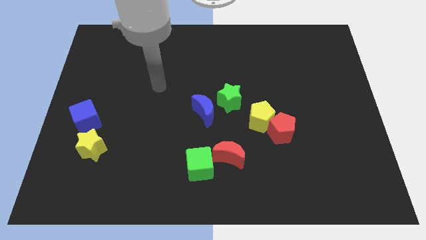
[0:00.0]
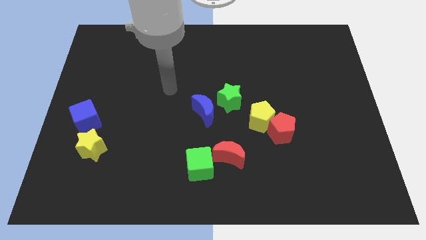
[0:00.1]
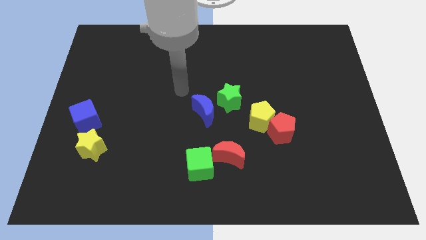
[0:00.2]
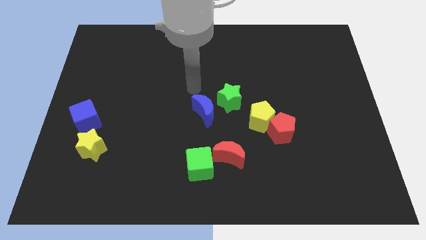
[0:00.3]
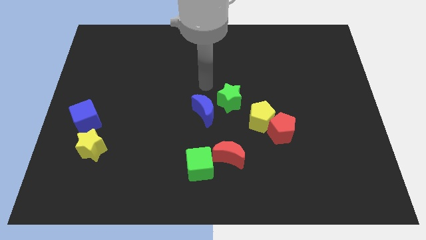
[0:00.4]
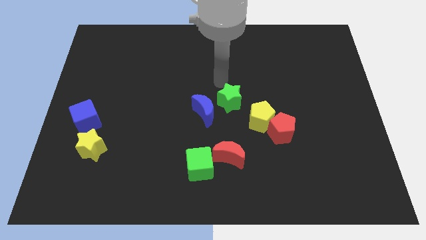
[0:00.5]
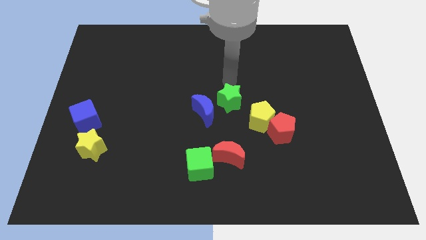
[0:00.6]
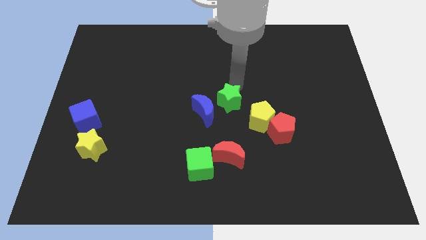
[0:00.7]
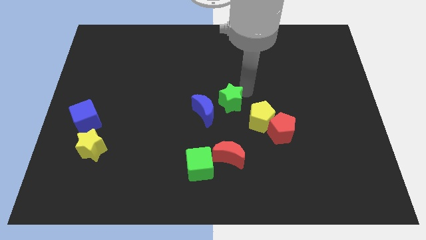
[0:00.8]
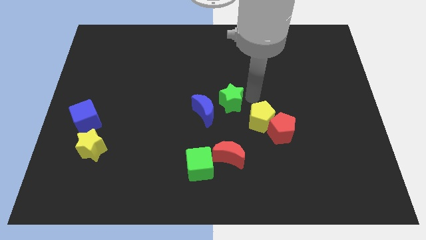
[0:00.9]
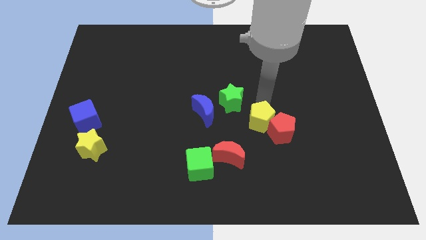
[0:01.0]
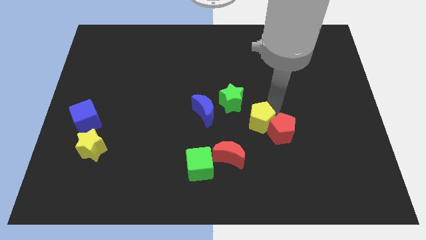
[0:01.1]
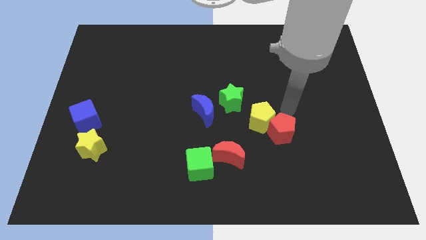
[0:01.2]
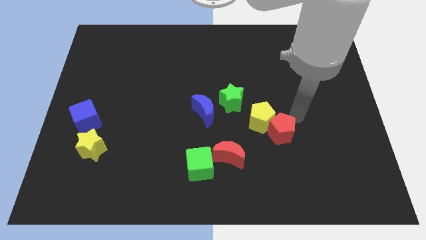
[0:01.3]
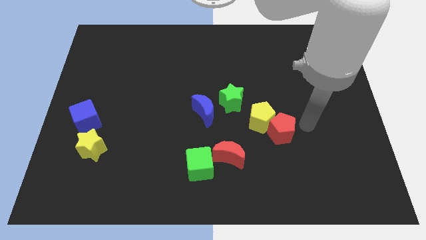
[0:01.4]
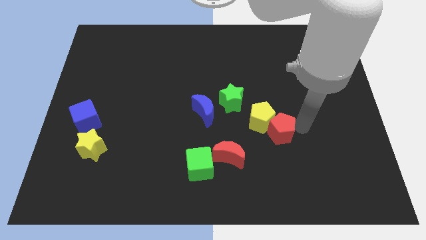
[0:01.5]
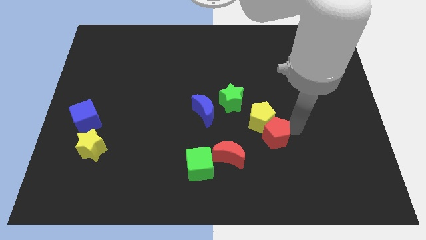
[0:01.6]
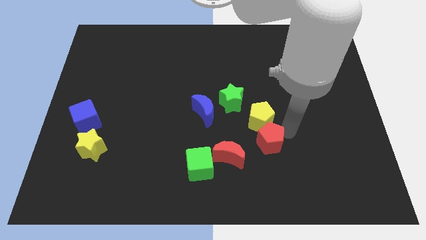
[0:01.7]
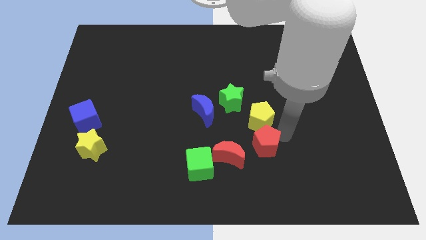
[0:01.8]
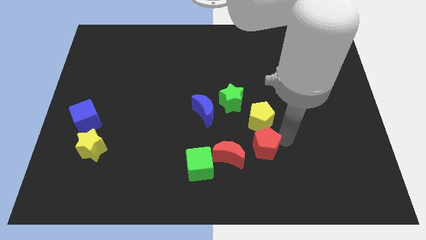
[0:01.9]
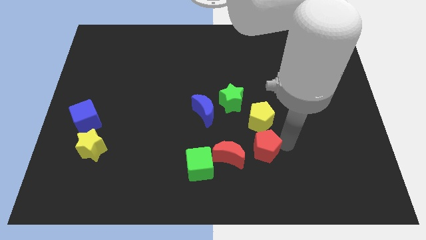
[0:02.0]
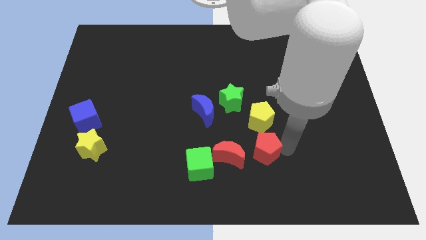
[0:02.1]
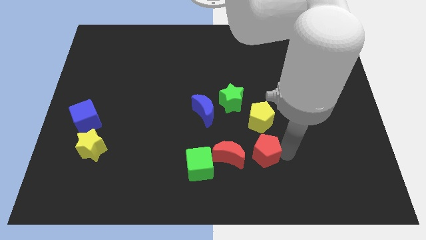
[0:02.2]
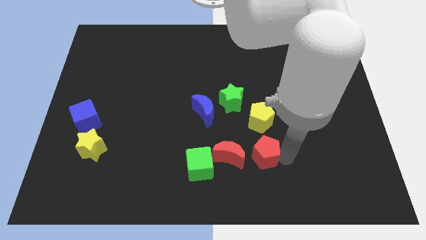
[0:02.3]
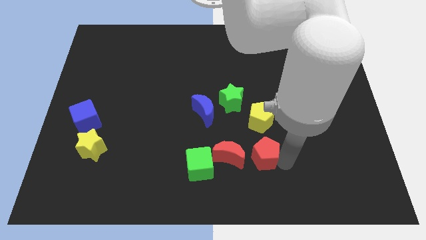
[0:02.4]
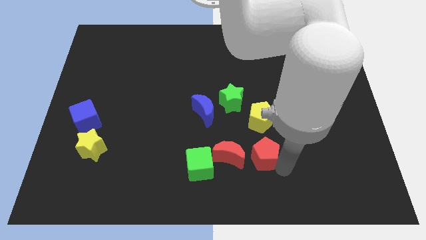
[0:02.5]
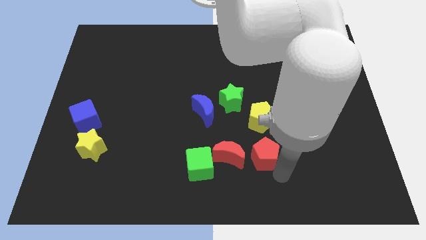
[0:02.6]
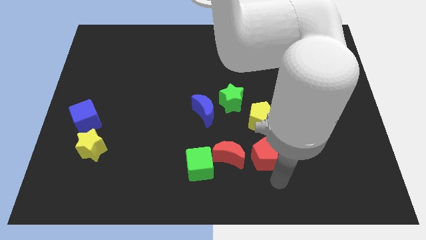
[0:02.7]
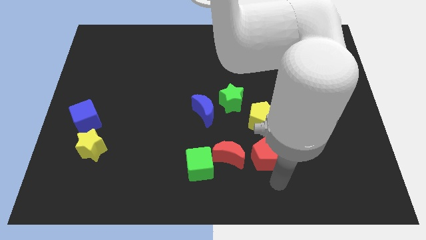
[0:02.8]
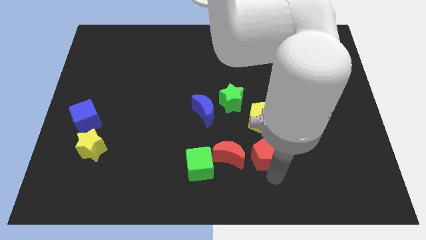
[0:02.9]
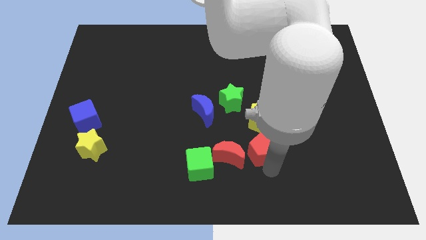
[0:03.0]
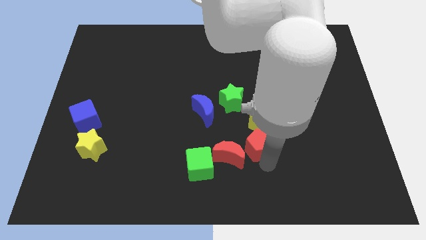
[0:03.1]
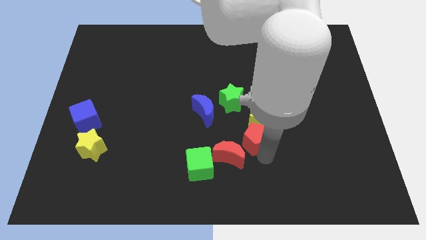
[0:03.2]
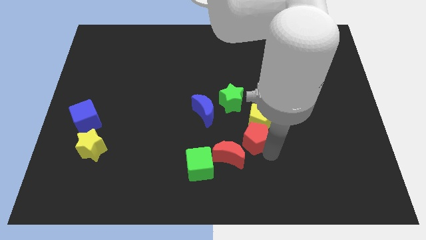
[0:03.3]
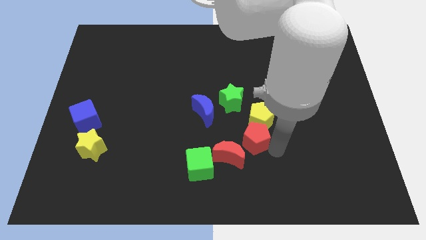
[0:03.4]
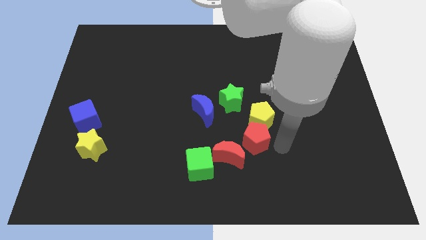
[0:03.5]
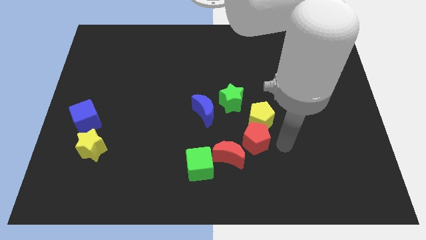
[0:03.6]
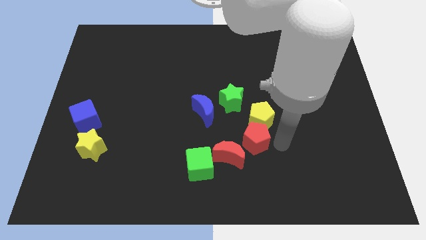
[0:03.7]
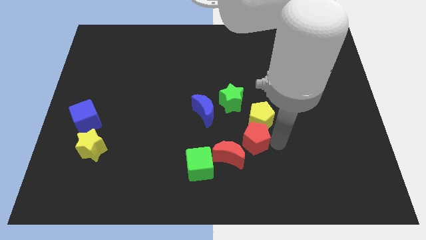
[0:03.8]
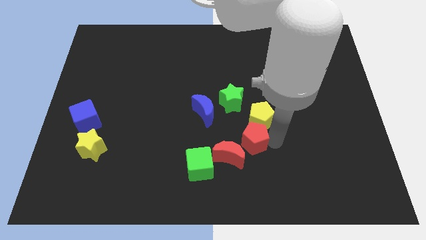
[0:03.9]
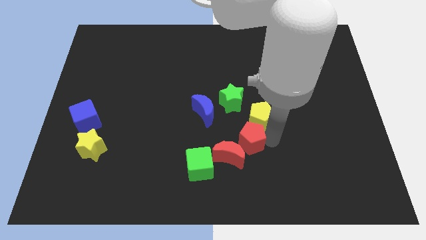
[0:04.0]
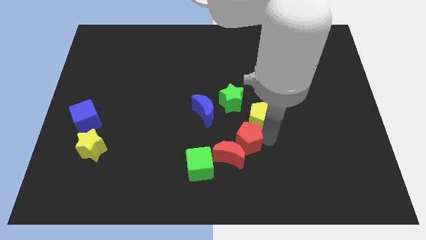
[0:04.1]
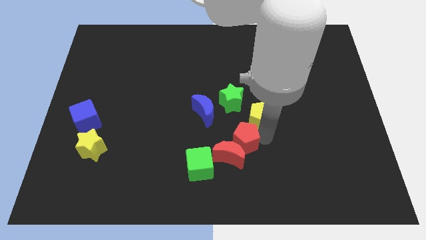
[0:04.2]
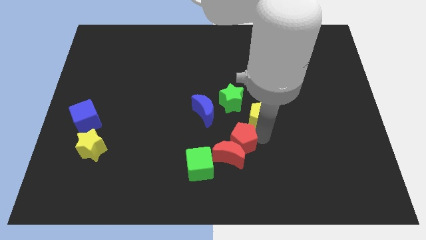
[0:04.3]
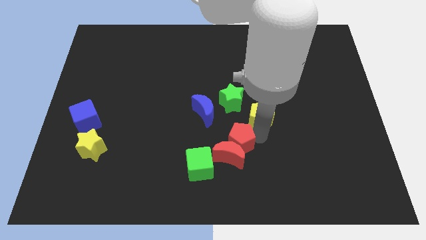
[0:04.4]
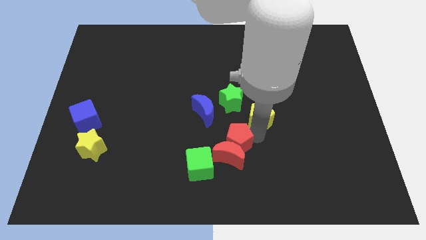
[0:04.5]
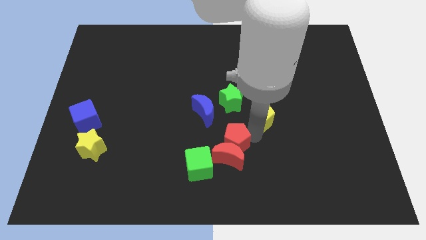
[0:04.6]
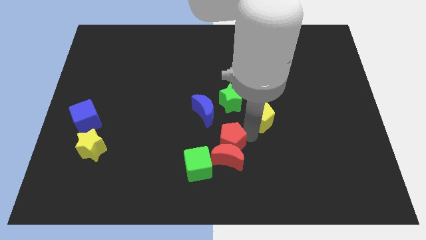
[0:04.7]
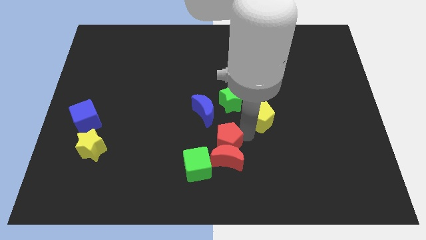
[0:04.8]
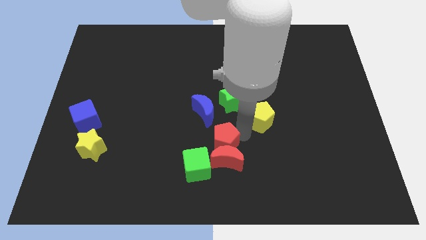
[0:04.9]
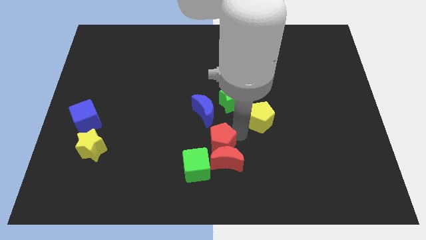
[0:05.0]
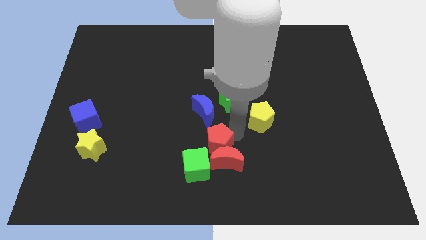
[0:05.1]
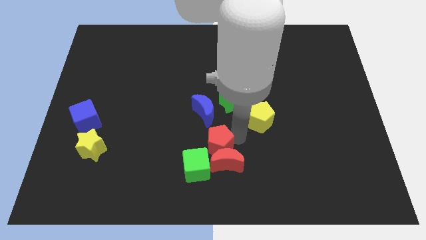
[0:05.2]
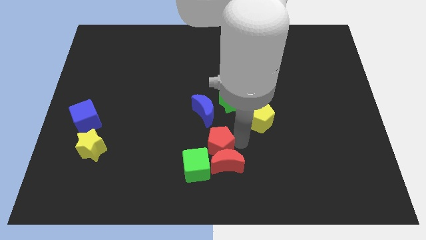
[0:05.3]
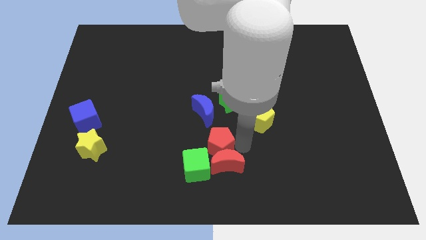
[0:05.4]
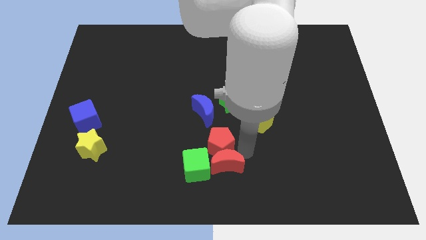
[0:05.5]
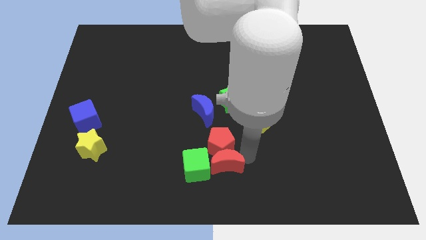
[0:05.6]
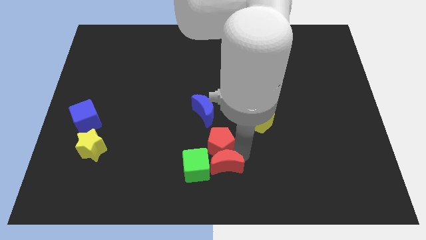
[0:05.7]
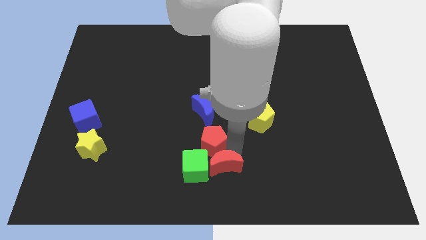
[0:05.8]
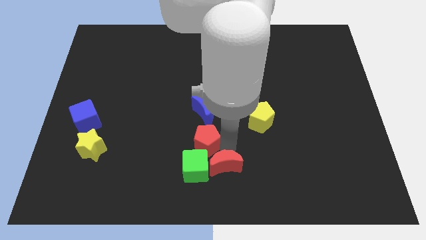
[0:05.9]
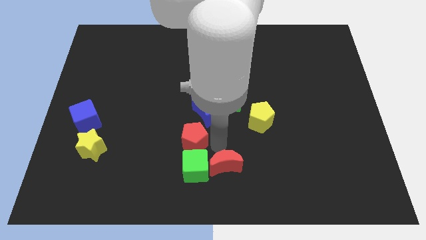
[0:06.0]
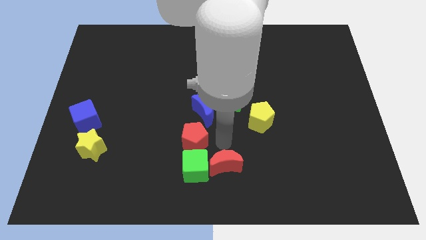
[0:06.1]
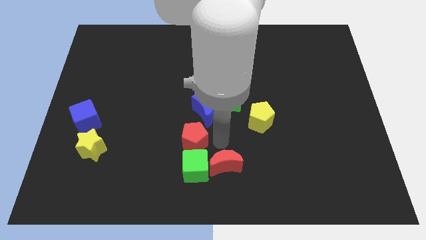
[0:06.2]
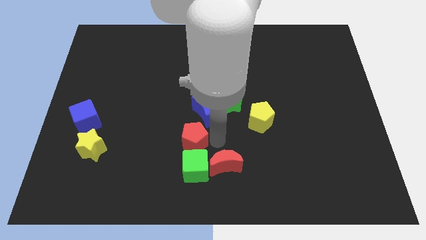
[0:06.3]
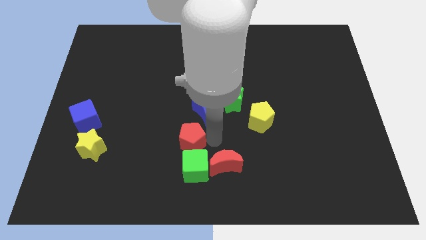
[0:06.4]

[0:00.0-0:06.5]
move the red pentagon to the left

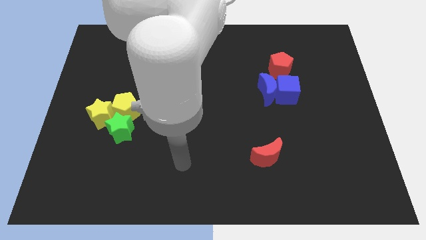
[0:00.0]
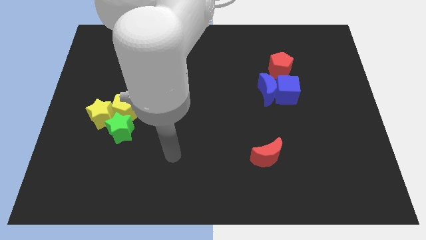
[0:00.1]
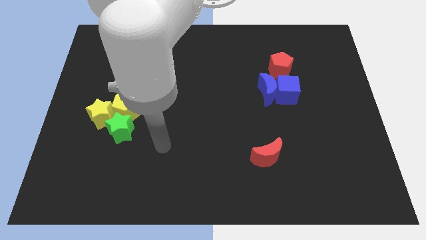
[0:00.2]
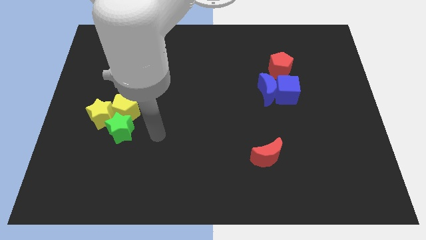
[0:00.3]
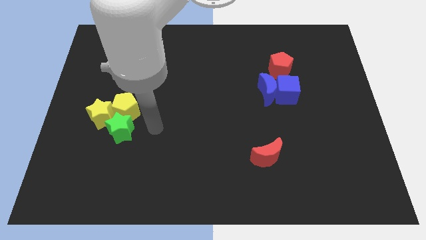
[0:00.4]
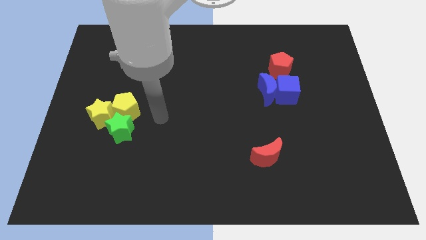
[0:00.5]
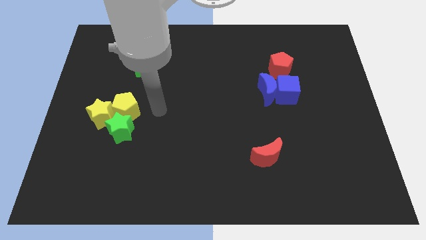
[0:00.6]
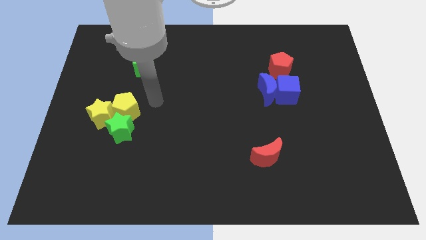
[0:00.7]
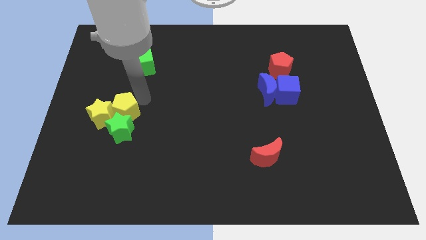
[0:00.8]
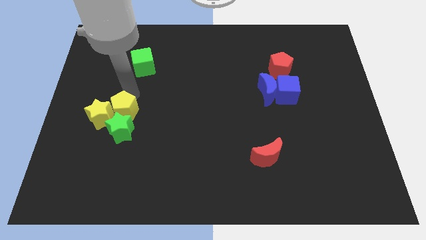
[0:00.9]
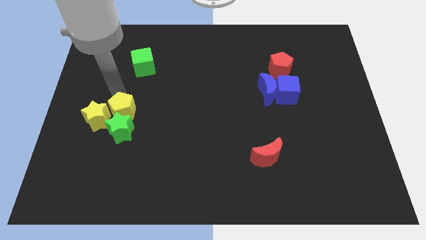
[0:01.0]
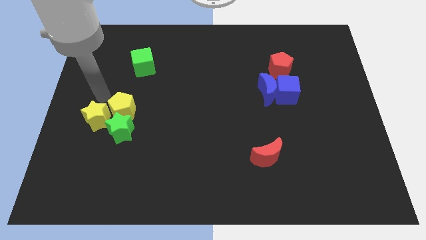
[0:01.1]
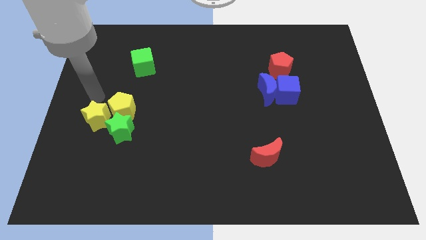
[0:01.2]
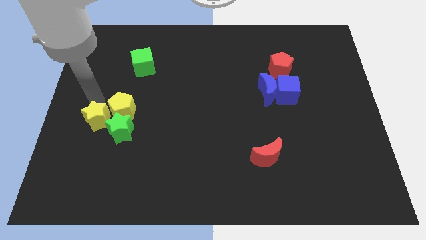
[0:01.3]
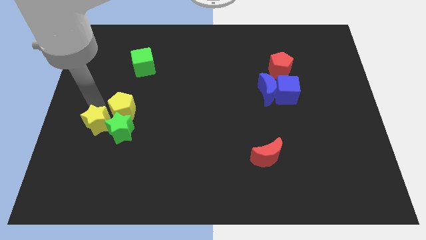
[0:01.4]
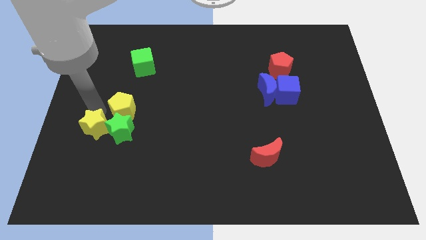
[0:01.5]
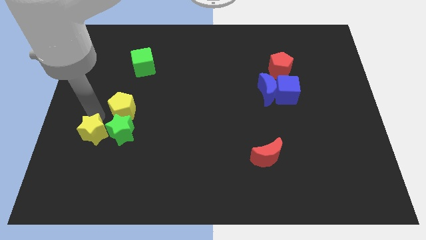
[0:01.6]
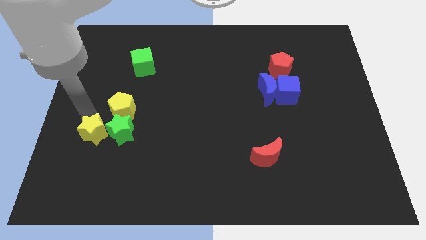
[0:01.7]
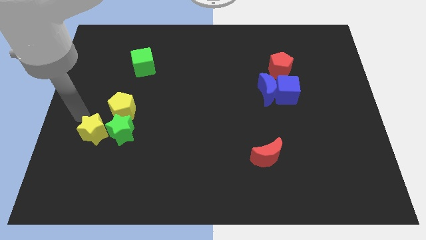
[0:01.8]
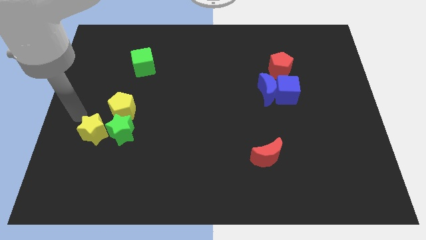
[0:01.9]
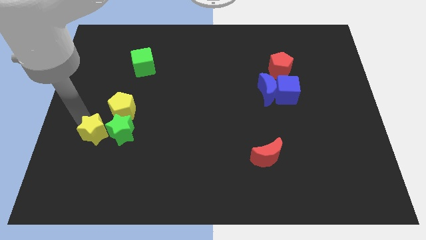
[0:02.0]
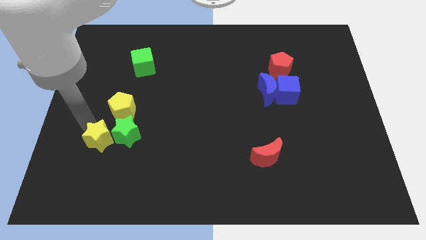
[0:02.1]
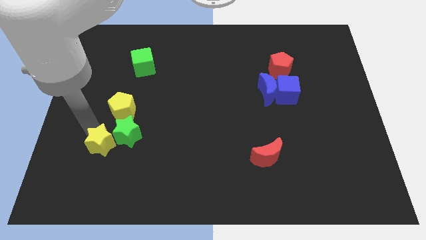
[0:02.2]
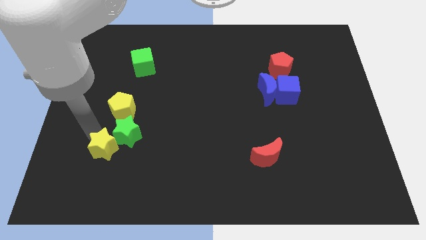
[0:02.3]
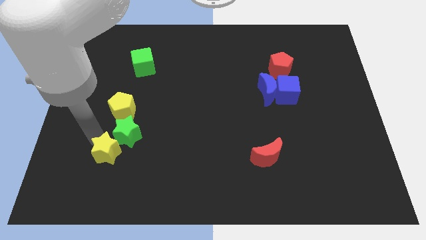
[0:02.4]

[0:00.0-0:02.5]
slide the yellow star a little downwards and then right
